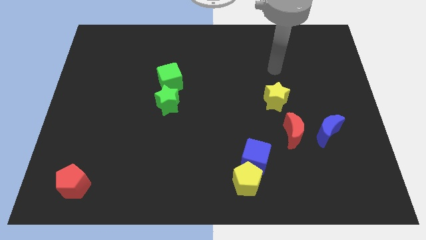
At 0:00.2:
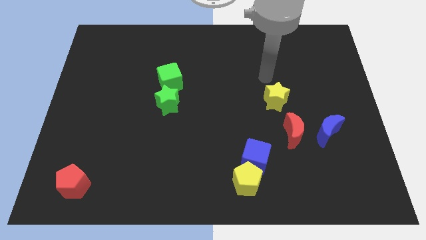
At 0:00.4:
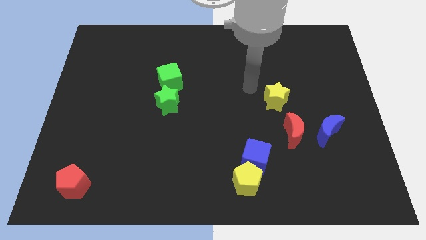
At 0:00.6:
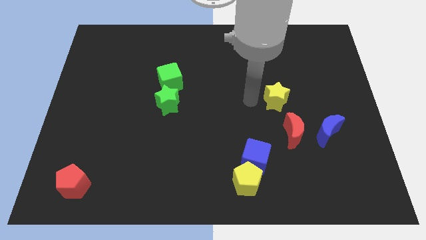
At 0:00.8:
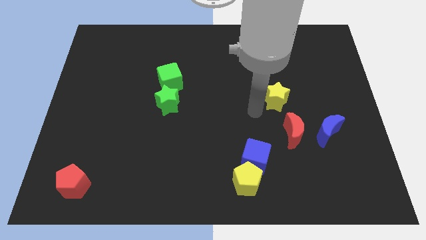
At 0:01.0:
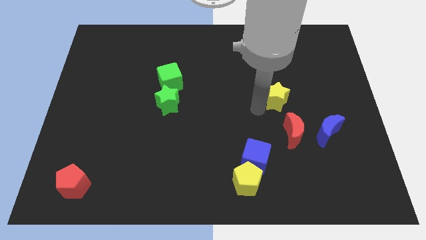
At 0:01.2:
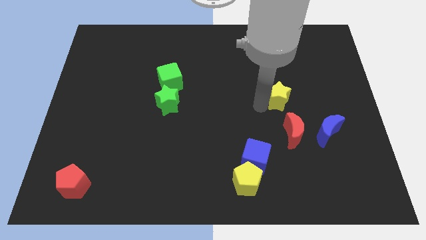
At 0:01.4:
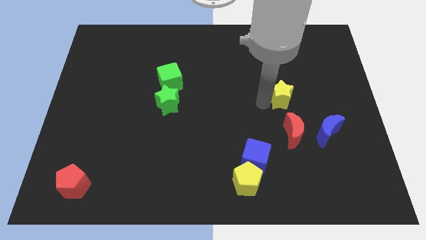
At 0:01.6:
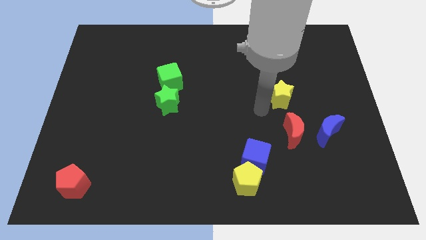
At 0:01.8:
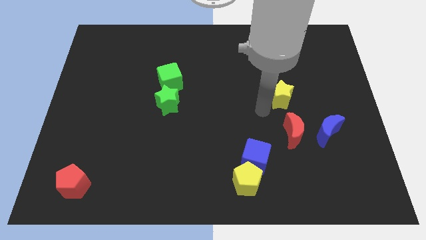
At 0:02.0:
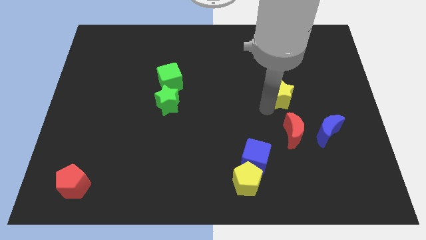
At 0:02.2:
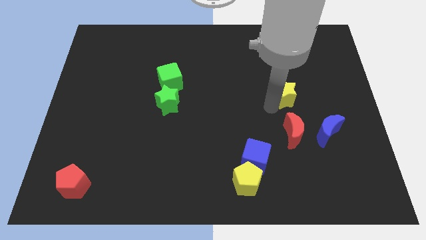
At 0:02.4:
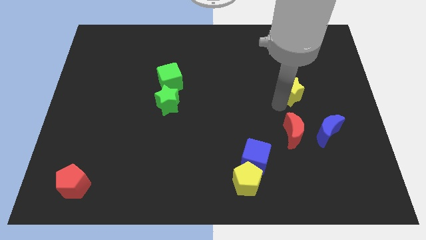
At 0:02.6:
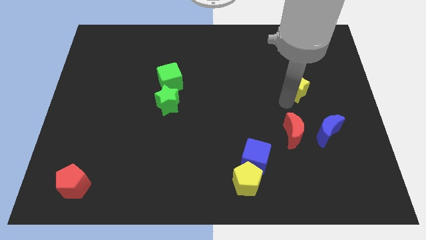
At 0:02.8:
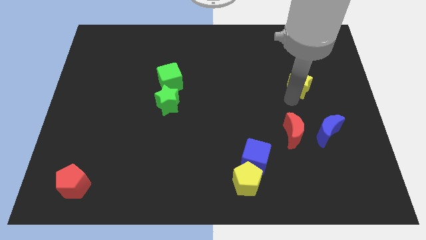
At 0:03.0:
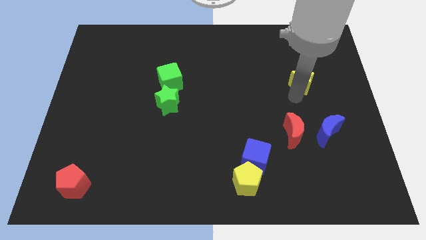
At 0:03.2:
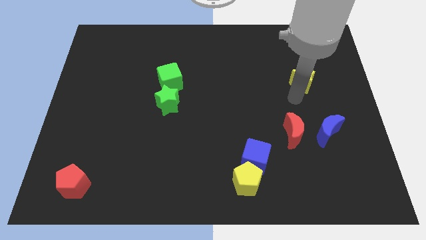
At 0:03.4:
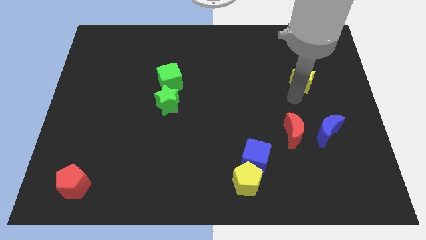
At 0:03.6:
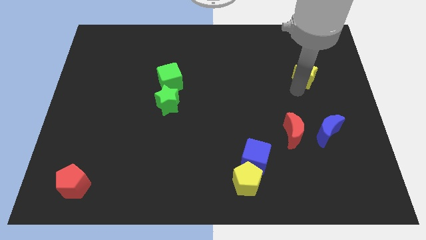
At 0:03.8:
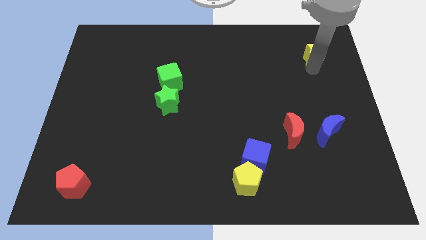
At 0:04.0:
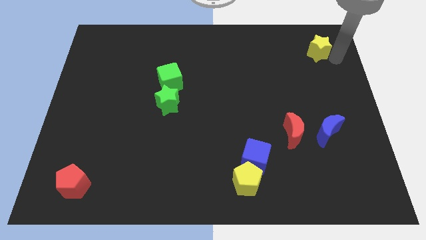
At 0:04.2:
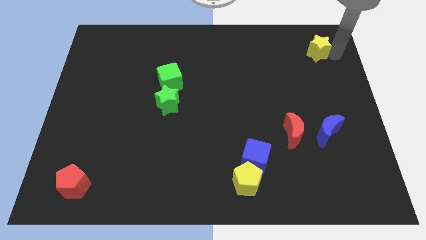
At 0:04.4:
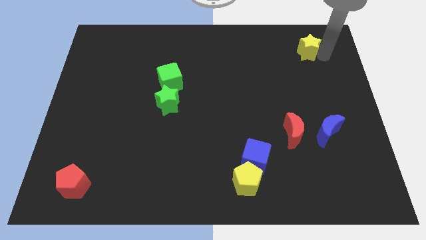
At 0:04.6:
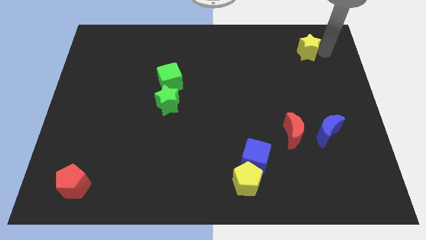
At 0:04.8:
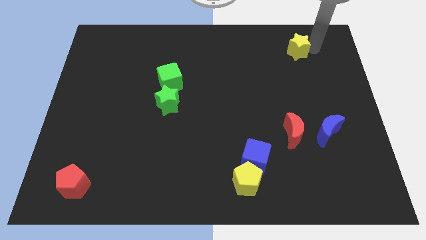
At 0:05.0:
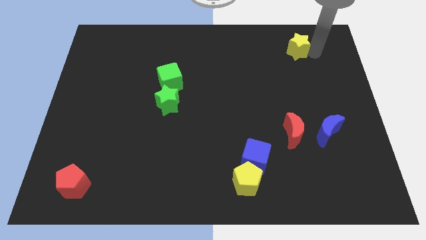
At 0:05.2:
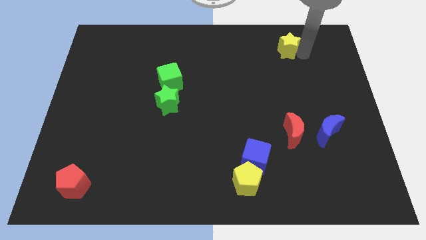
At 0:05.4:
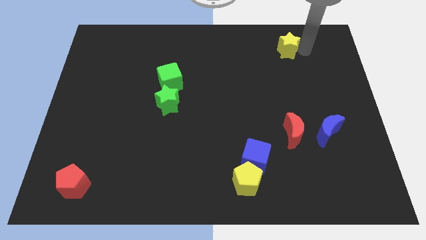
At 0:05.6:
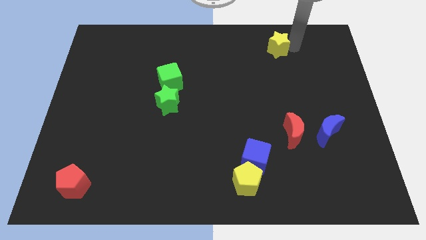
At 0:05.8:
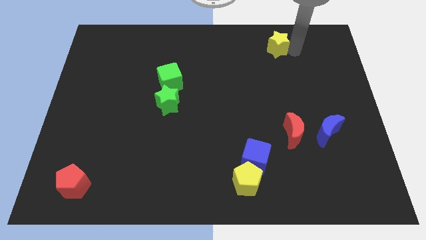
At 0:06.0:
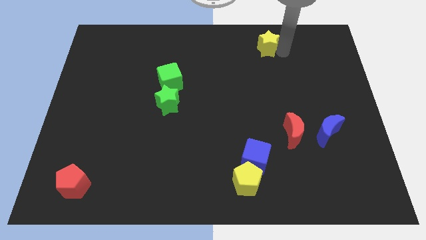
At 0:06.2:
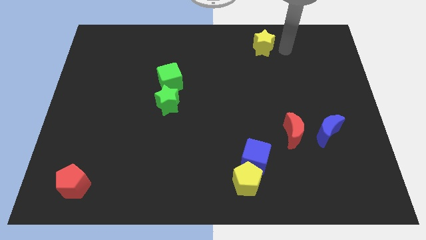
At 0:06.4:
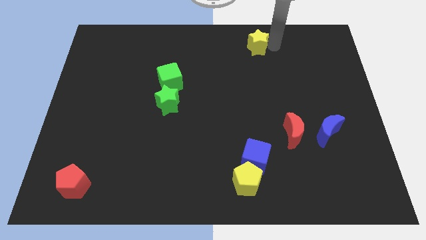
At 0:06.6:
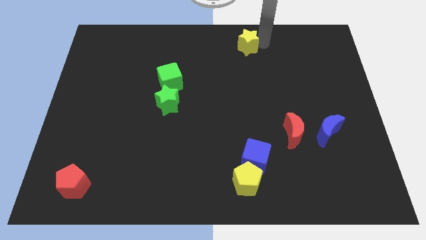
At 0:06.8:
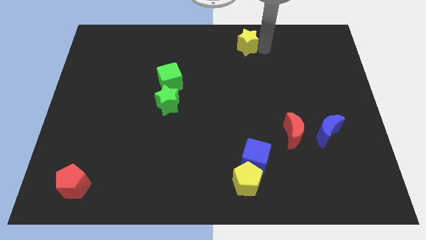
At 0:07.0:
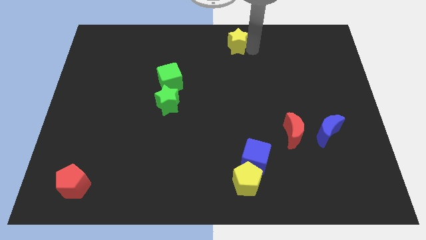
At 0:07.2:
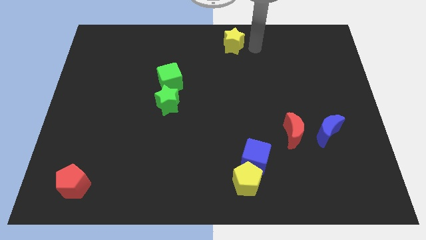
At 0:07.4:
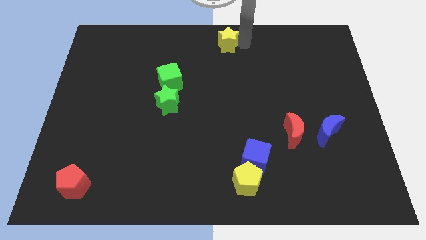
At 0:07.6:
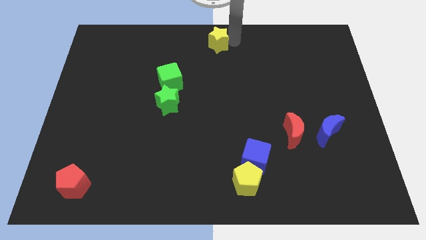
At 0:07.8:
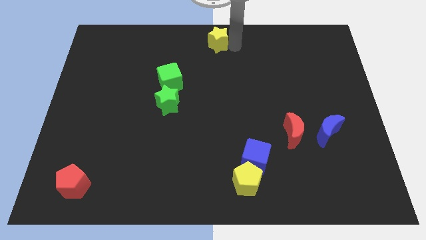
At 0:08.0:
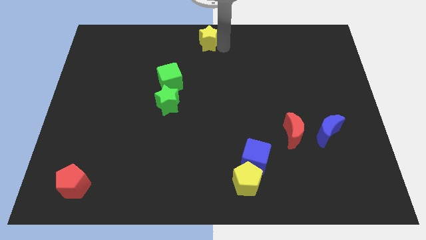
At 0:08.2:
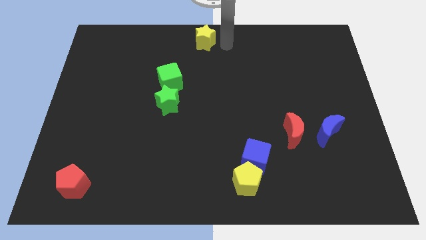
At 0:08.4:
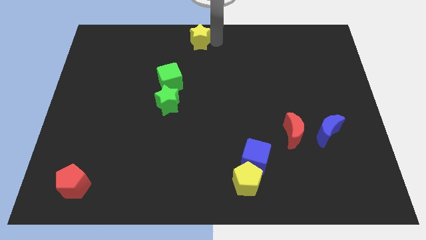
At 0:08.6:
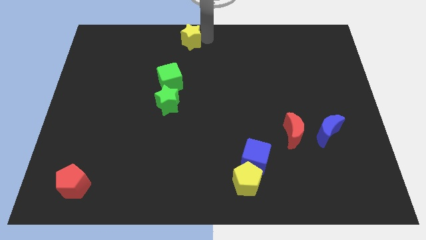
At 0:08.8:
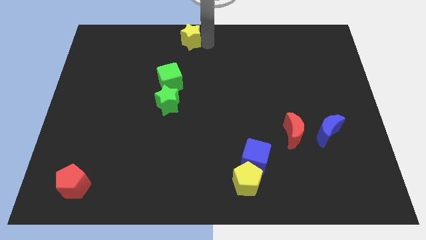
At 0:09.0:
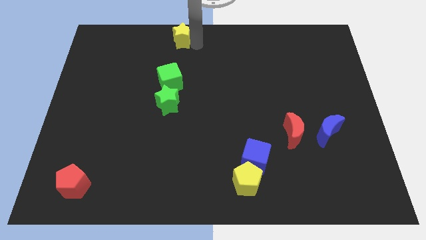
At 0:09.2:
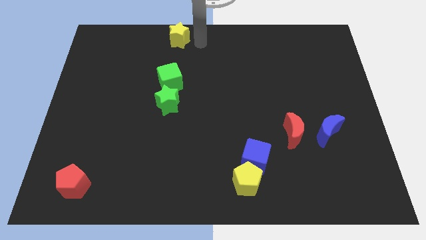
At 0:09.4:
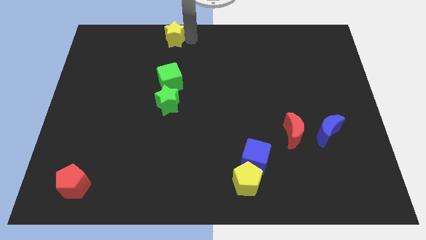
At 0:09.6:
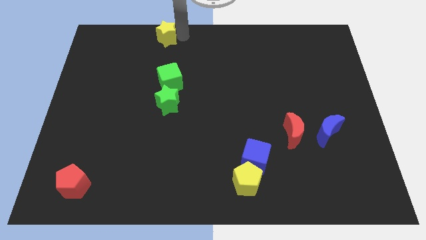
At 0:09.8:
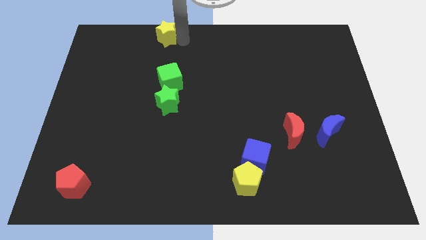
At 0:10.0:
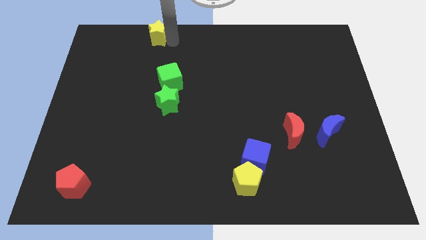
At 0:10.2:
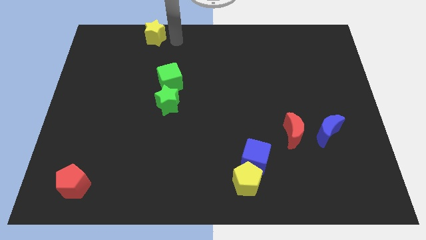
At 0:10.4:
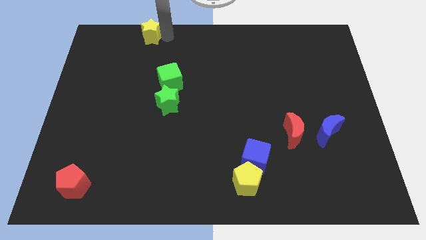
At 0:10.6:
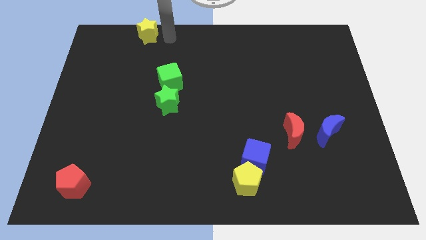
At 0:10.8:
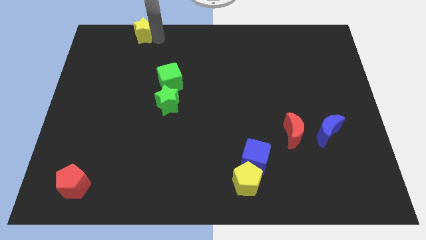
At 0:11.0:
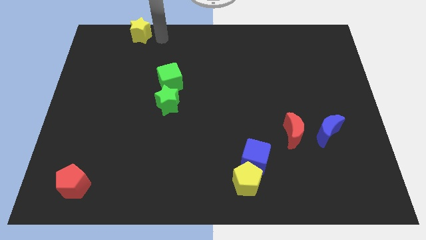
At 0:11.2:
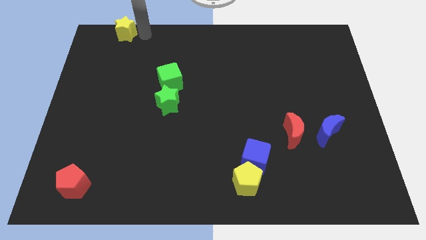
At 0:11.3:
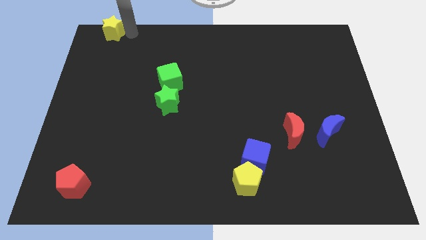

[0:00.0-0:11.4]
push the yellow star to the upper left corner

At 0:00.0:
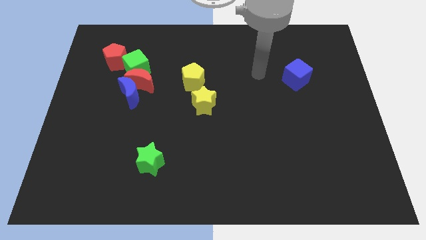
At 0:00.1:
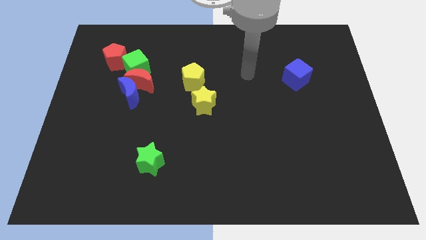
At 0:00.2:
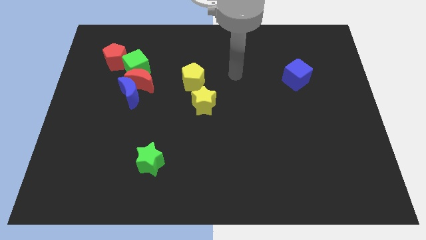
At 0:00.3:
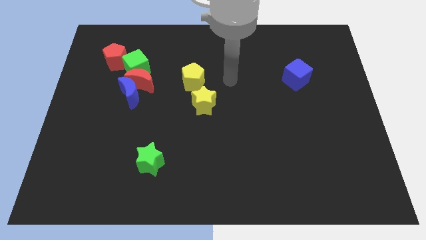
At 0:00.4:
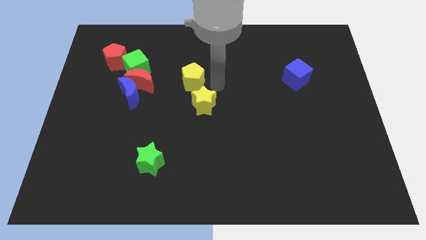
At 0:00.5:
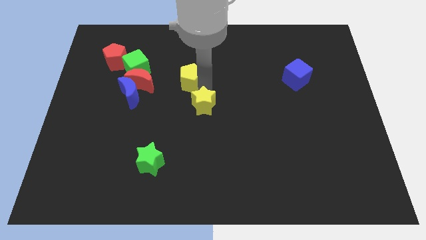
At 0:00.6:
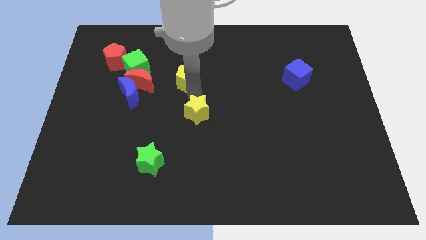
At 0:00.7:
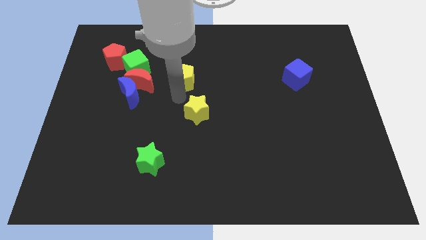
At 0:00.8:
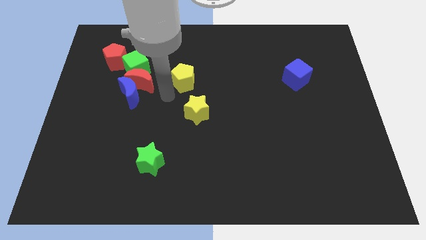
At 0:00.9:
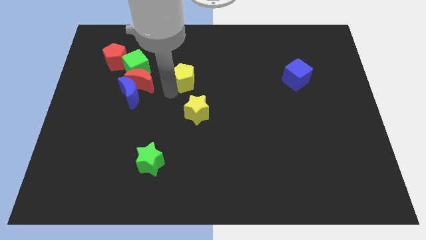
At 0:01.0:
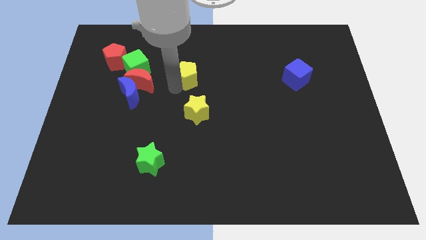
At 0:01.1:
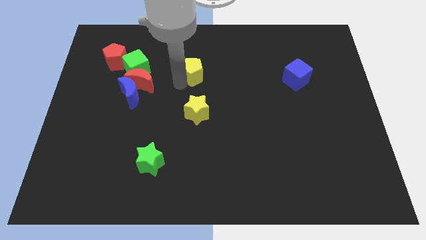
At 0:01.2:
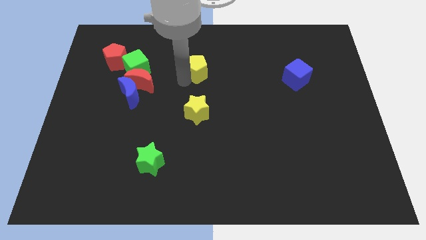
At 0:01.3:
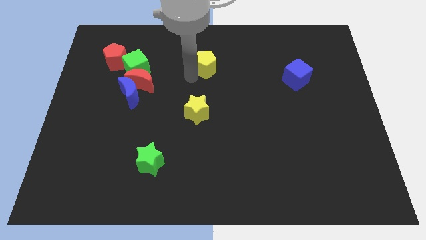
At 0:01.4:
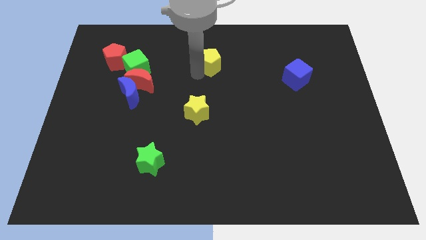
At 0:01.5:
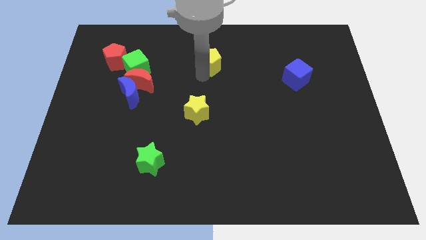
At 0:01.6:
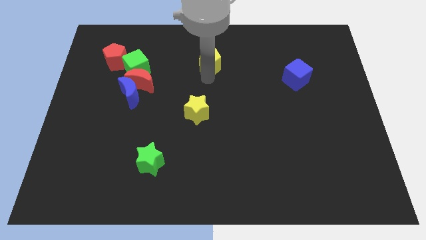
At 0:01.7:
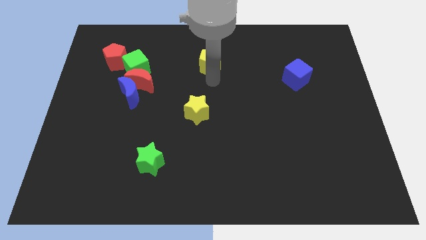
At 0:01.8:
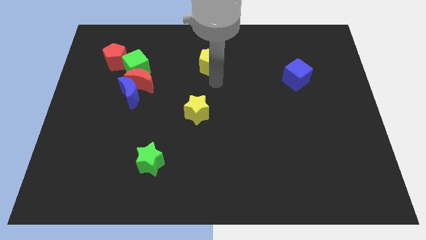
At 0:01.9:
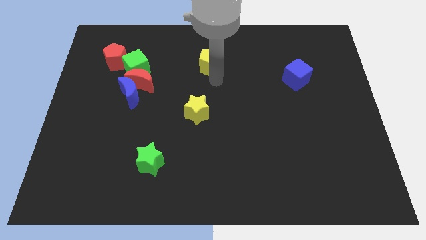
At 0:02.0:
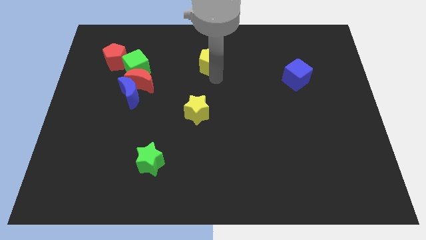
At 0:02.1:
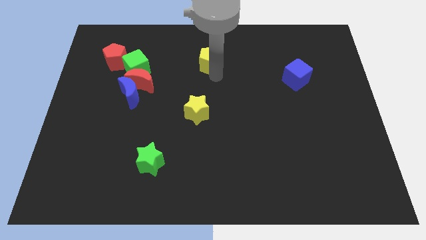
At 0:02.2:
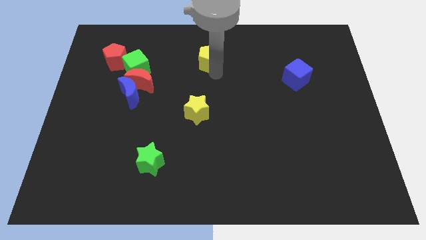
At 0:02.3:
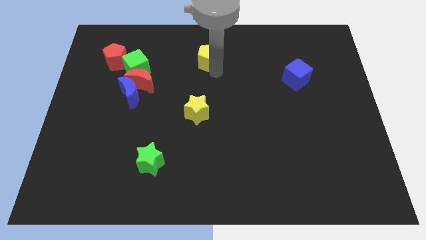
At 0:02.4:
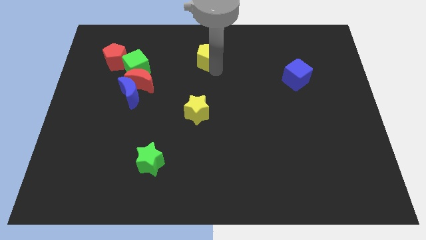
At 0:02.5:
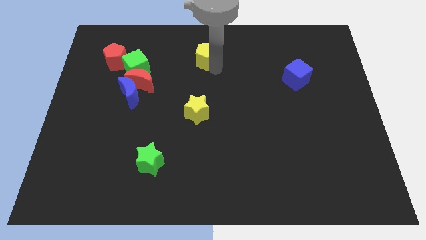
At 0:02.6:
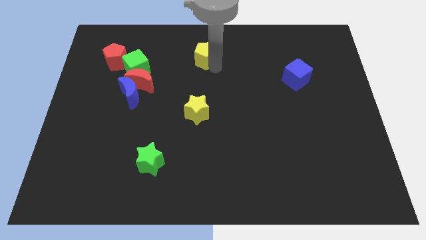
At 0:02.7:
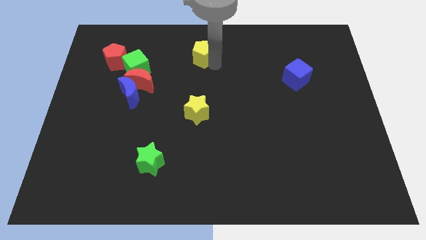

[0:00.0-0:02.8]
push the yellow pentagon to the towards your base
